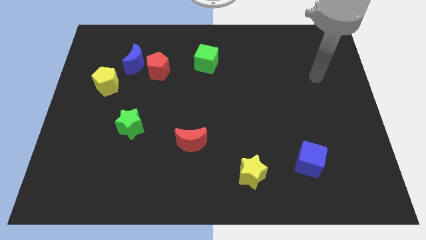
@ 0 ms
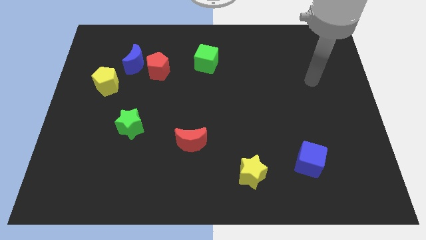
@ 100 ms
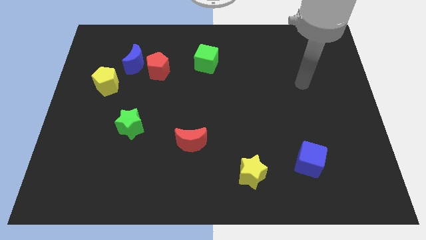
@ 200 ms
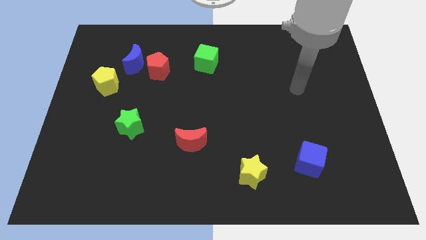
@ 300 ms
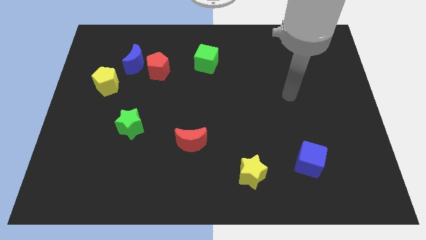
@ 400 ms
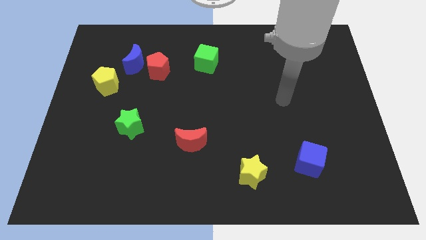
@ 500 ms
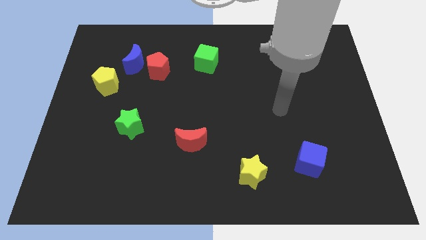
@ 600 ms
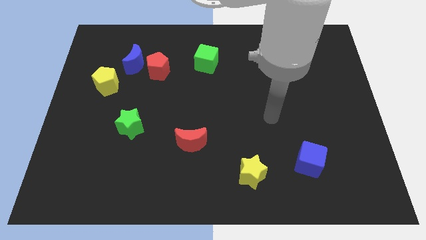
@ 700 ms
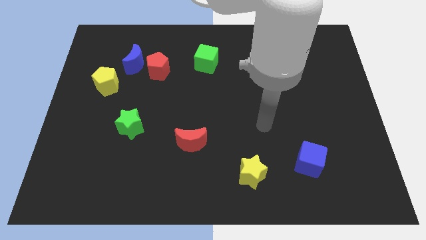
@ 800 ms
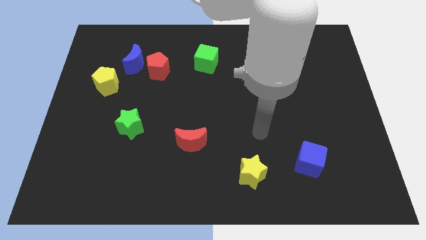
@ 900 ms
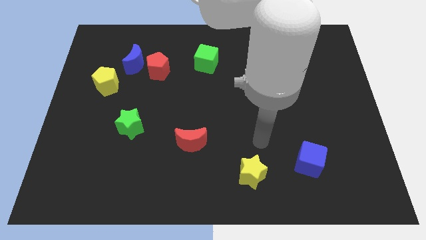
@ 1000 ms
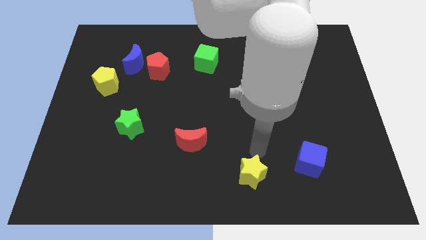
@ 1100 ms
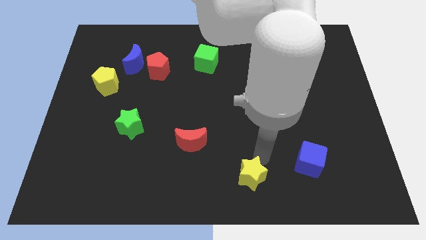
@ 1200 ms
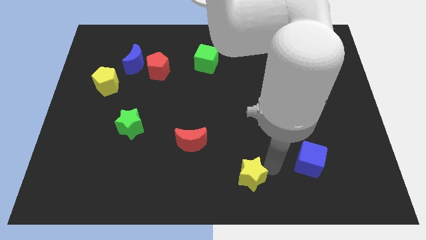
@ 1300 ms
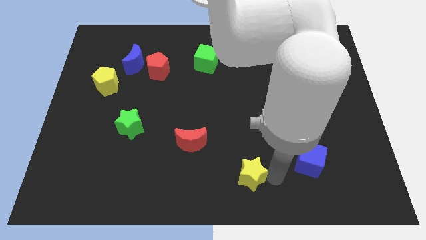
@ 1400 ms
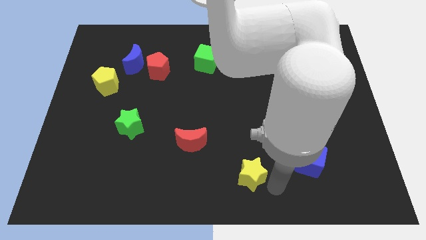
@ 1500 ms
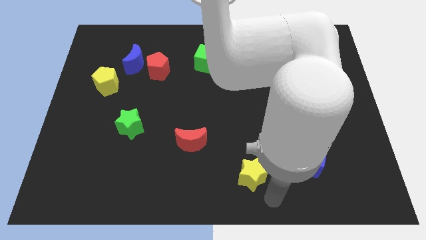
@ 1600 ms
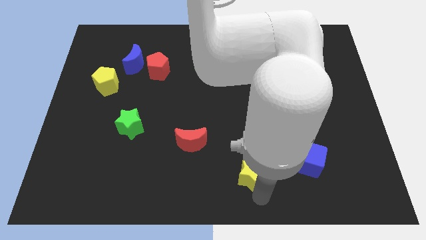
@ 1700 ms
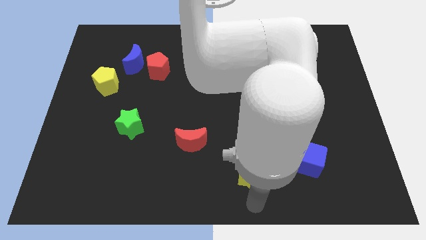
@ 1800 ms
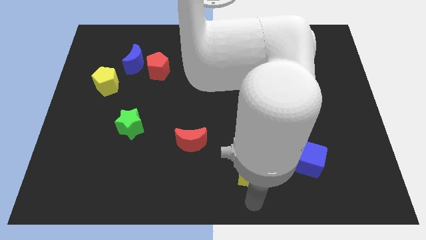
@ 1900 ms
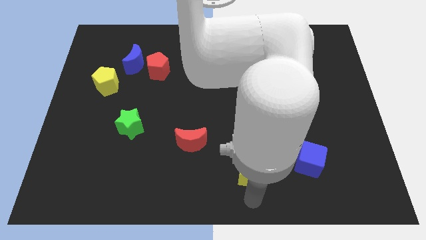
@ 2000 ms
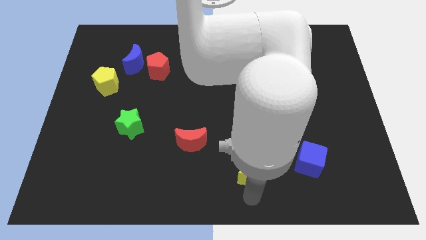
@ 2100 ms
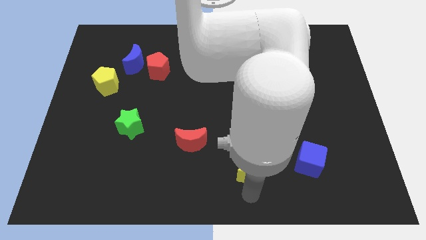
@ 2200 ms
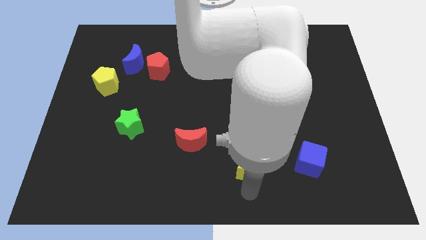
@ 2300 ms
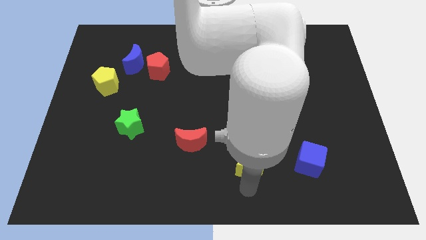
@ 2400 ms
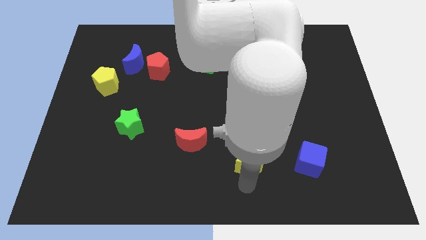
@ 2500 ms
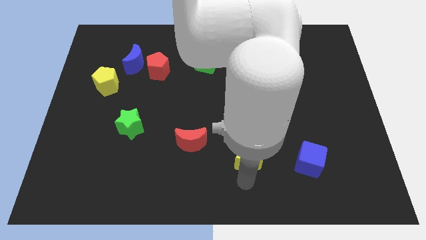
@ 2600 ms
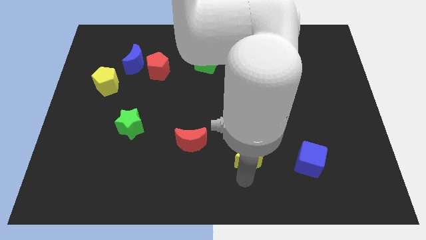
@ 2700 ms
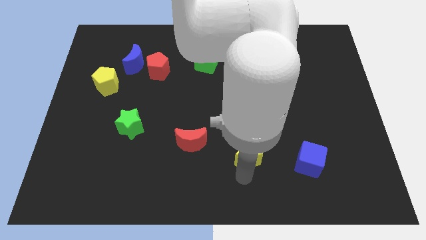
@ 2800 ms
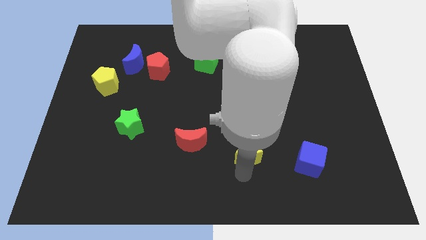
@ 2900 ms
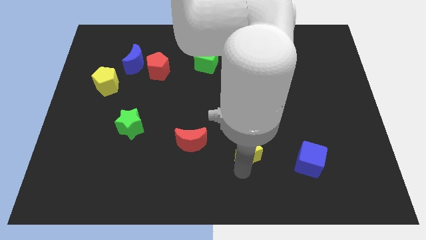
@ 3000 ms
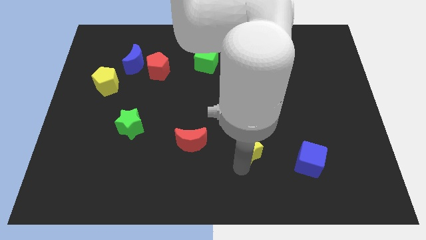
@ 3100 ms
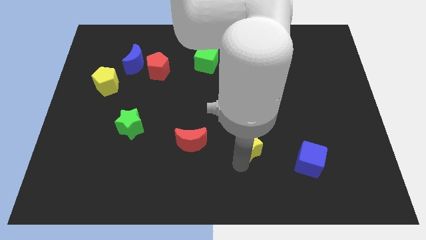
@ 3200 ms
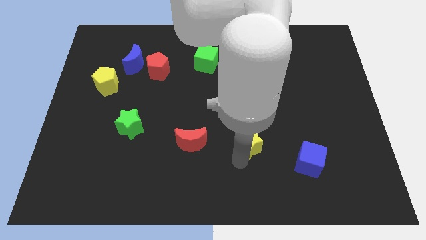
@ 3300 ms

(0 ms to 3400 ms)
slightly push the yellow star upwards

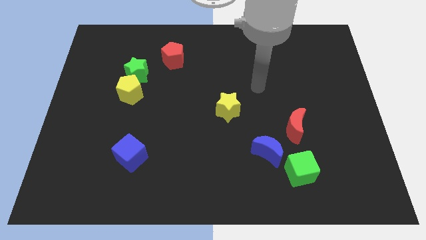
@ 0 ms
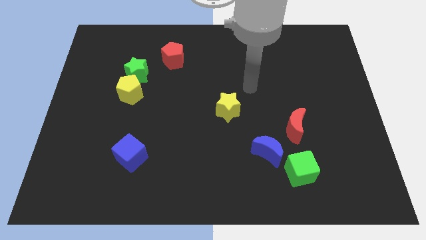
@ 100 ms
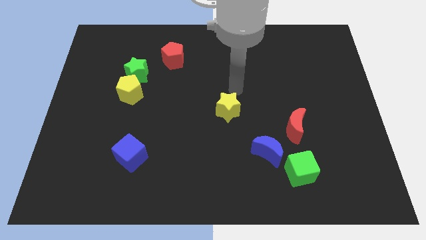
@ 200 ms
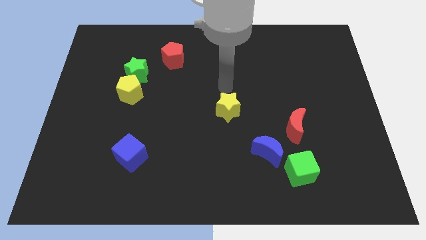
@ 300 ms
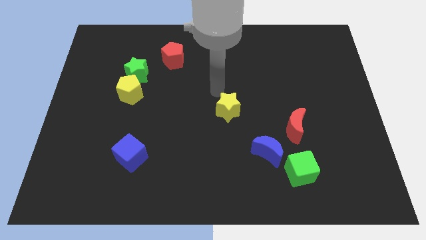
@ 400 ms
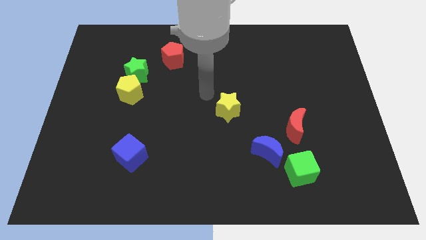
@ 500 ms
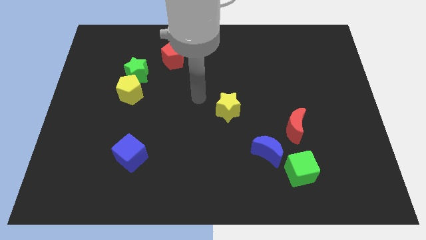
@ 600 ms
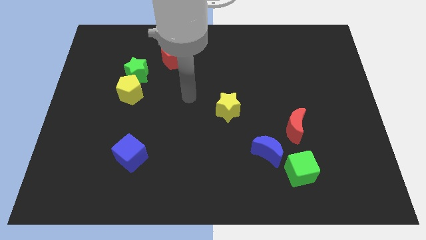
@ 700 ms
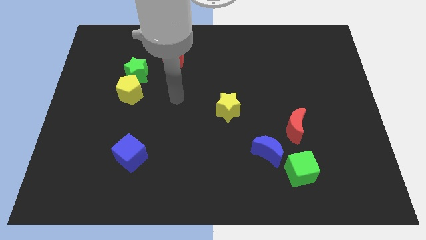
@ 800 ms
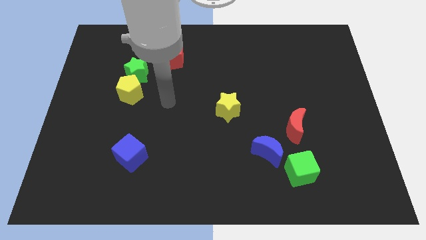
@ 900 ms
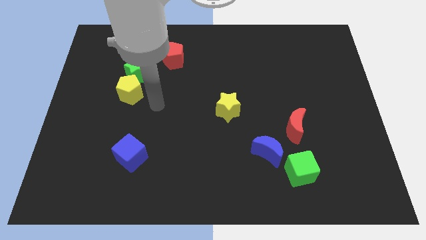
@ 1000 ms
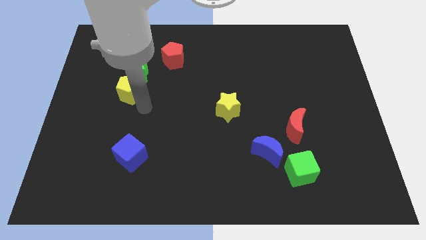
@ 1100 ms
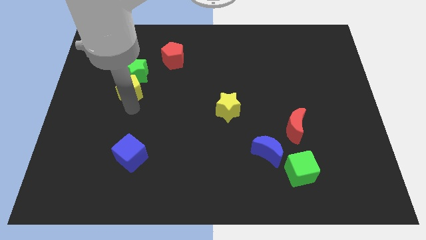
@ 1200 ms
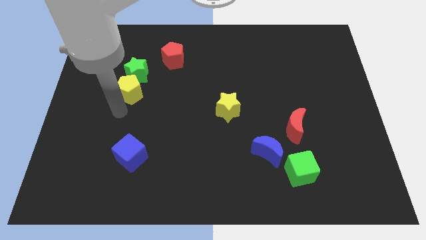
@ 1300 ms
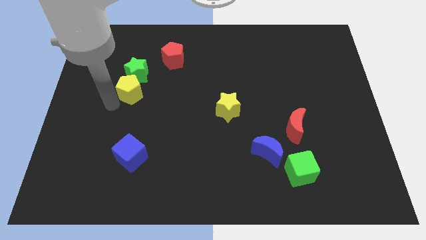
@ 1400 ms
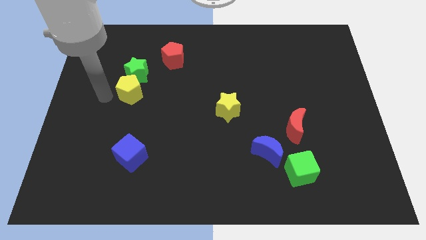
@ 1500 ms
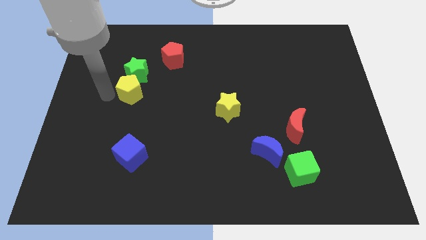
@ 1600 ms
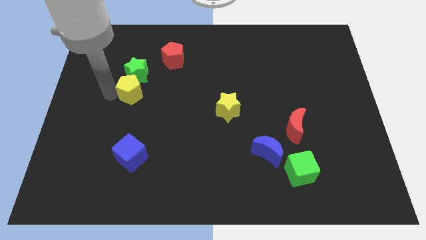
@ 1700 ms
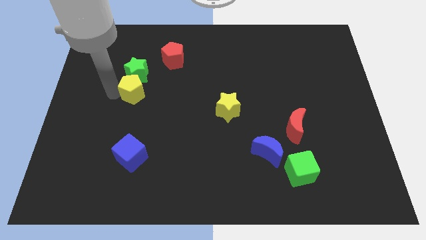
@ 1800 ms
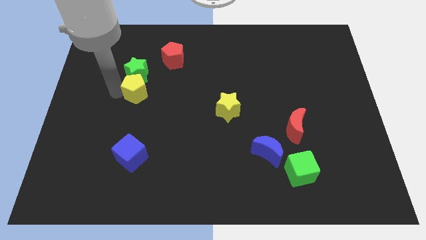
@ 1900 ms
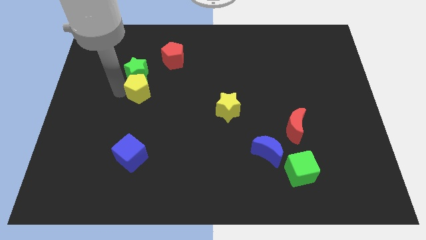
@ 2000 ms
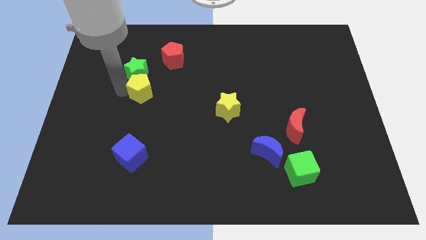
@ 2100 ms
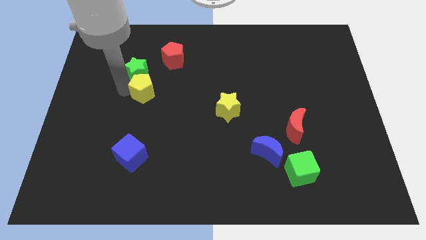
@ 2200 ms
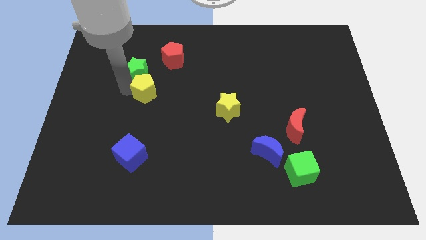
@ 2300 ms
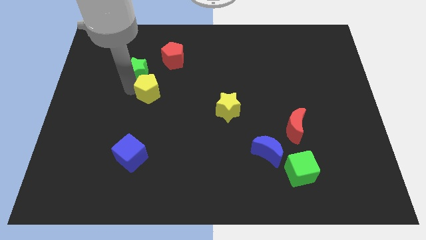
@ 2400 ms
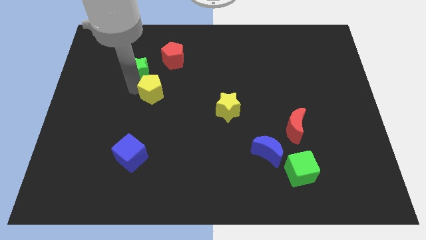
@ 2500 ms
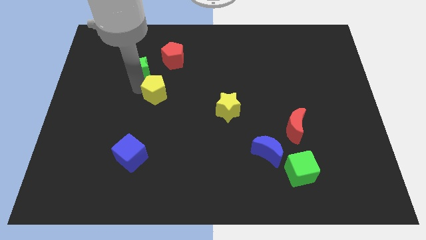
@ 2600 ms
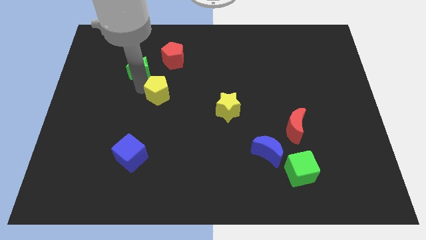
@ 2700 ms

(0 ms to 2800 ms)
slightly move the yellow pentagon to the right

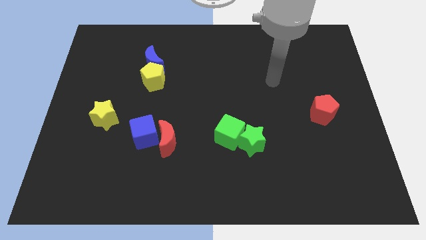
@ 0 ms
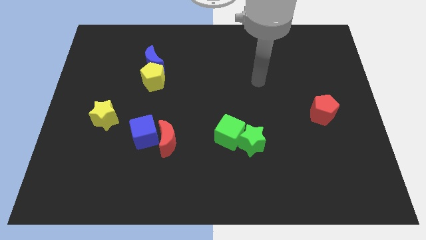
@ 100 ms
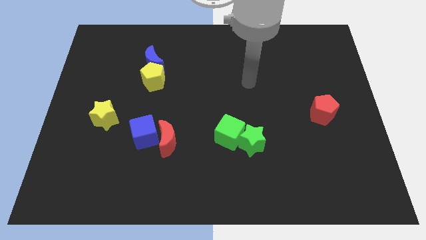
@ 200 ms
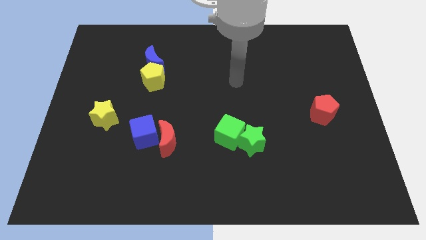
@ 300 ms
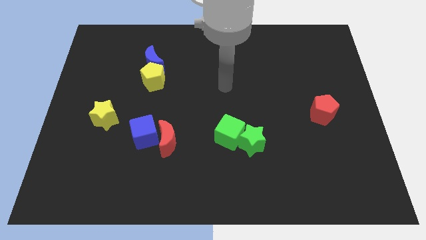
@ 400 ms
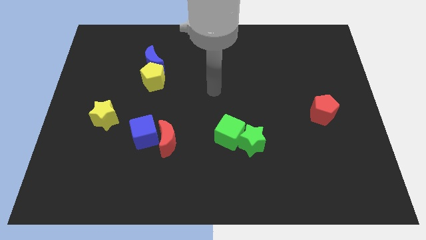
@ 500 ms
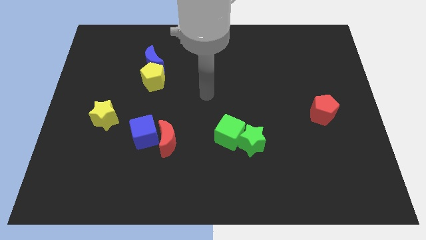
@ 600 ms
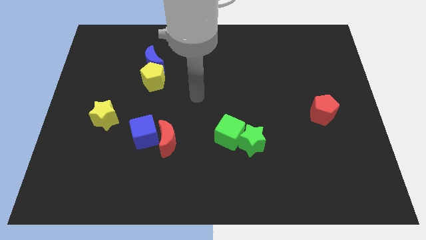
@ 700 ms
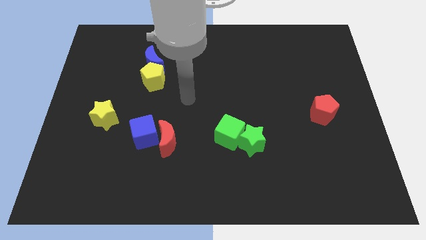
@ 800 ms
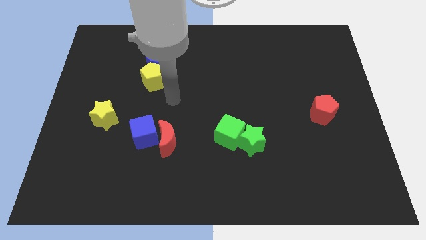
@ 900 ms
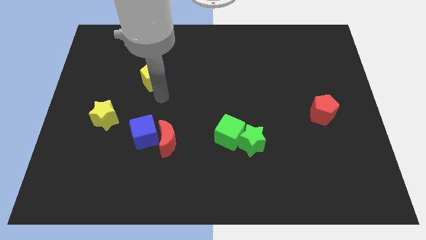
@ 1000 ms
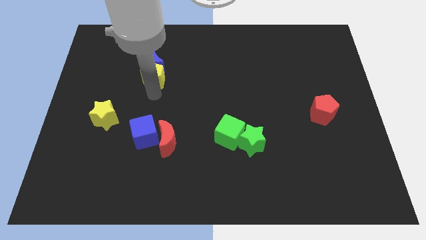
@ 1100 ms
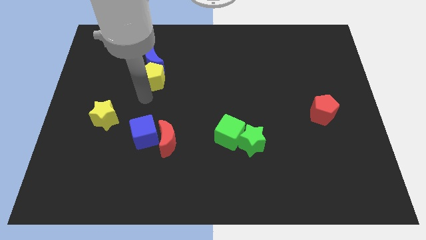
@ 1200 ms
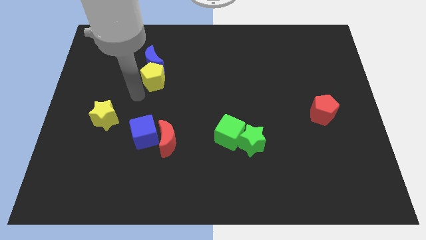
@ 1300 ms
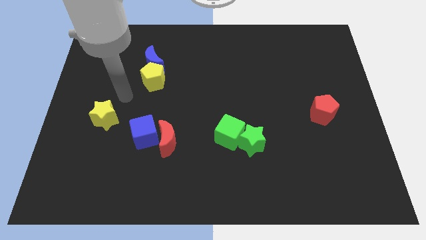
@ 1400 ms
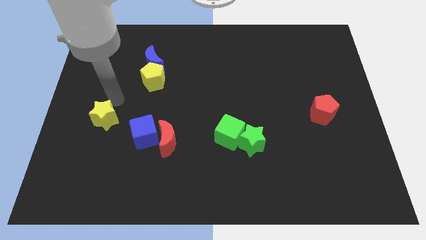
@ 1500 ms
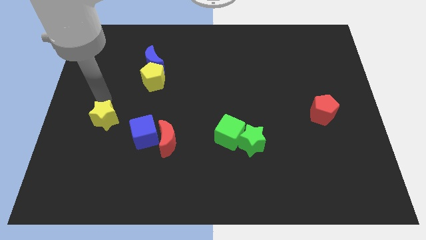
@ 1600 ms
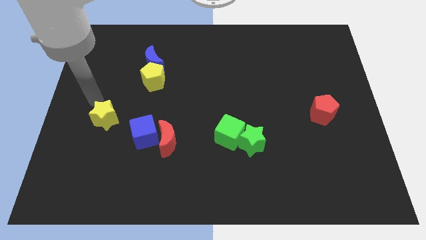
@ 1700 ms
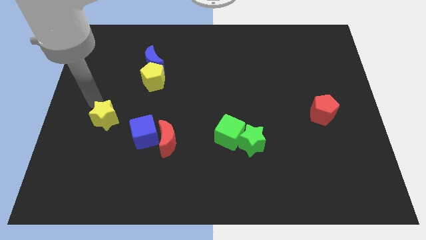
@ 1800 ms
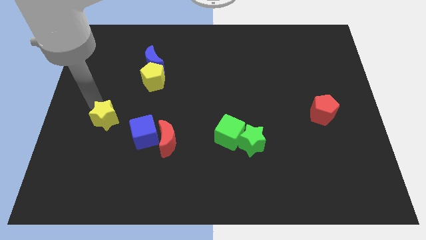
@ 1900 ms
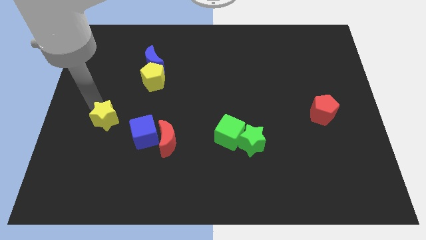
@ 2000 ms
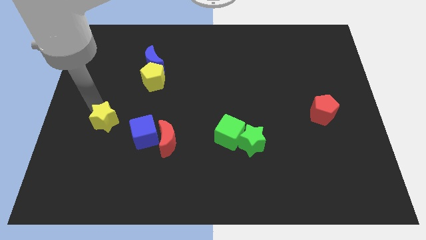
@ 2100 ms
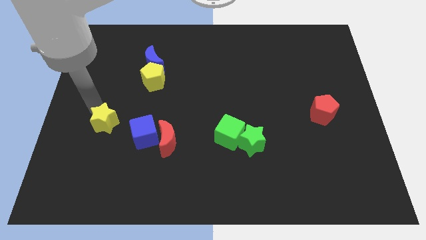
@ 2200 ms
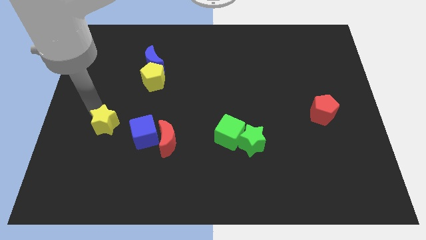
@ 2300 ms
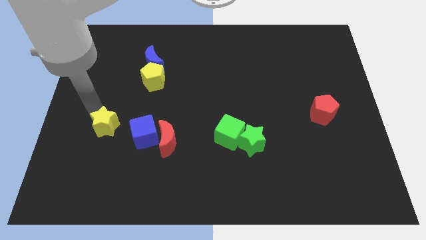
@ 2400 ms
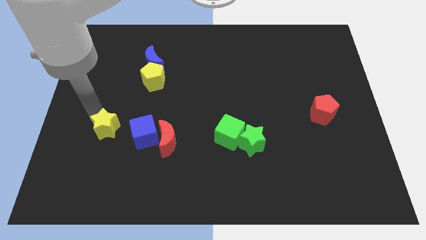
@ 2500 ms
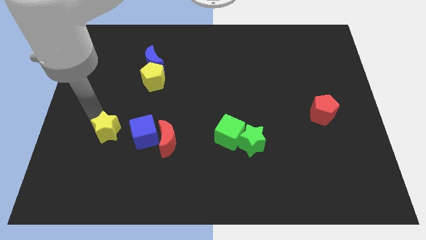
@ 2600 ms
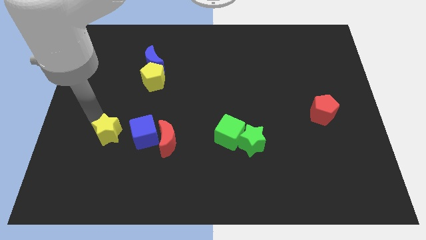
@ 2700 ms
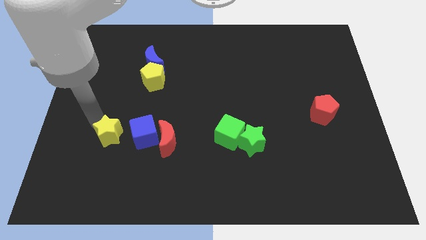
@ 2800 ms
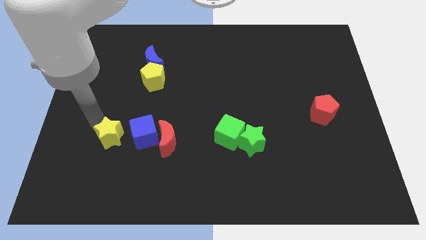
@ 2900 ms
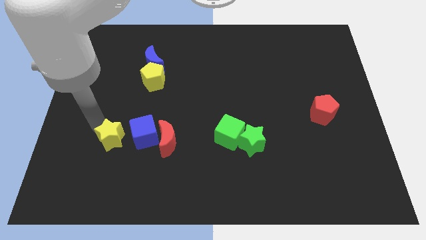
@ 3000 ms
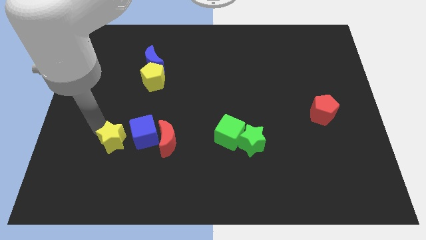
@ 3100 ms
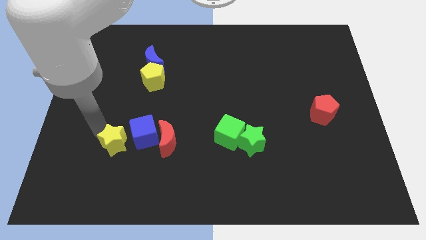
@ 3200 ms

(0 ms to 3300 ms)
move the yellow star diagonally downwards and to the right somewhat
